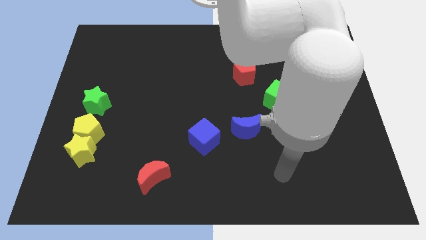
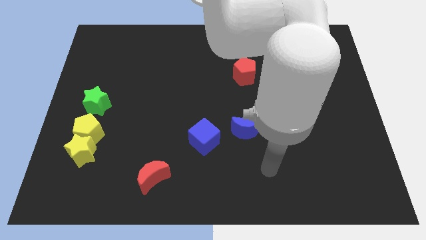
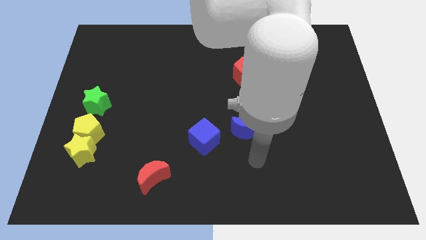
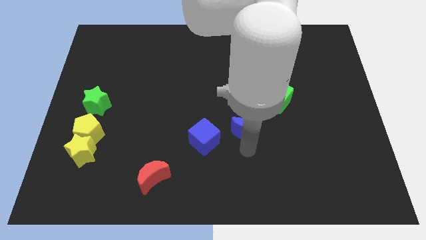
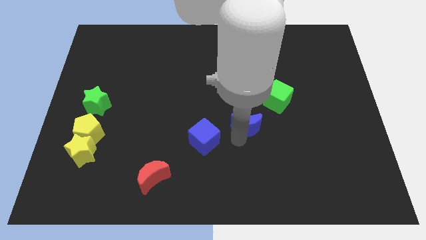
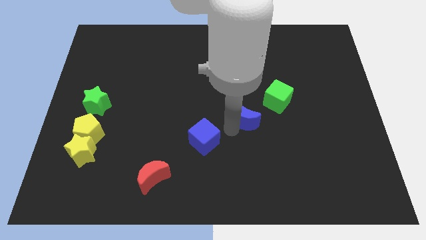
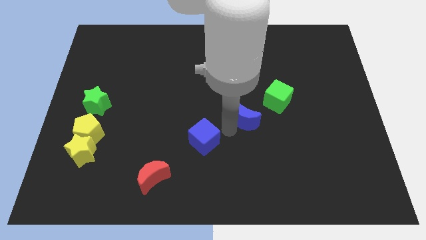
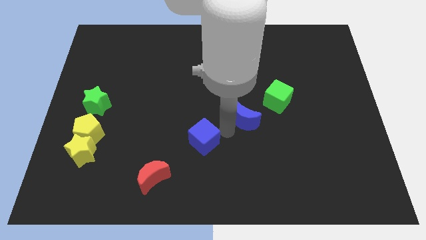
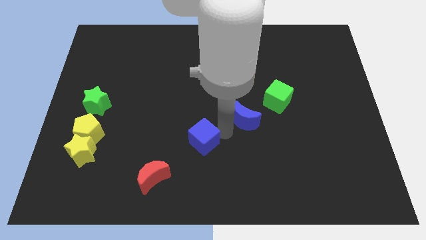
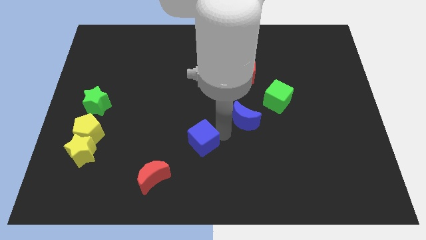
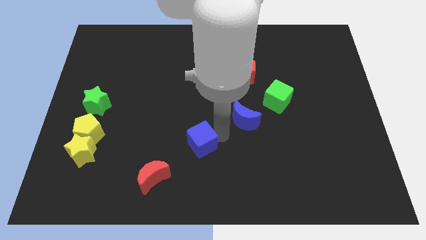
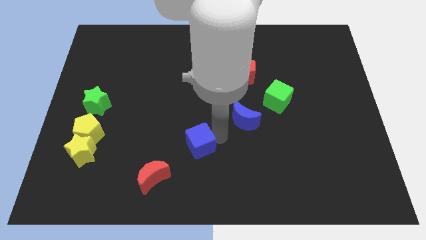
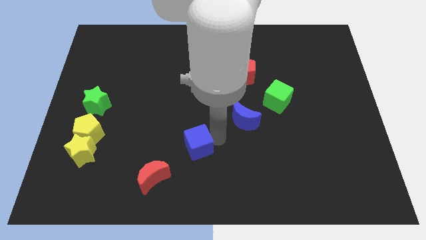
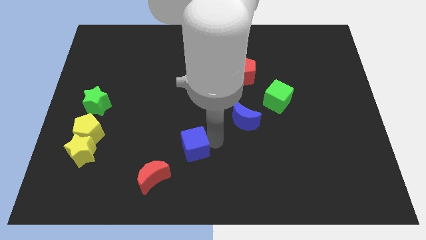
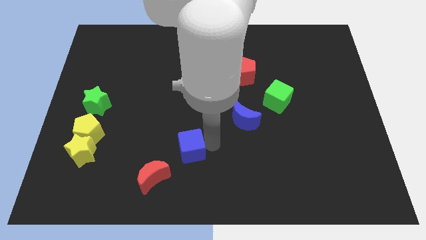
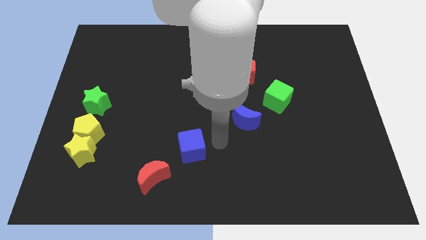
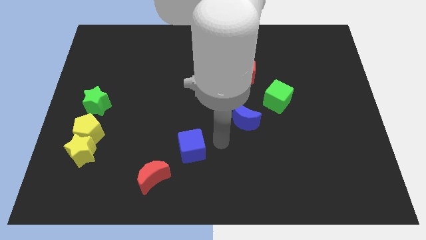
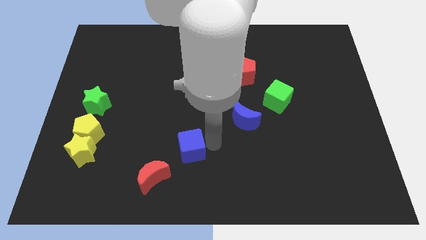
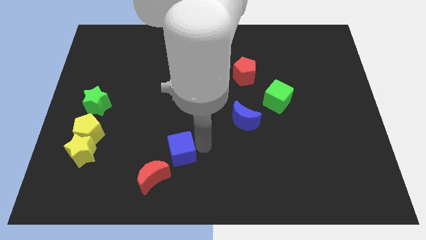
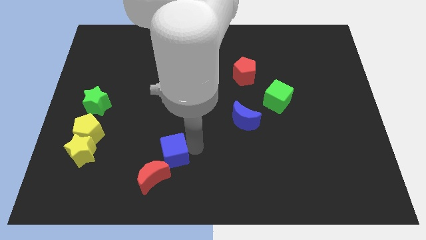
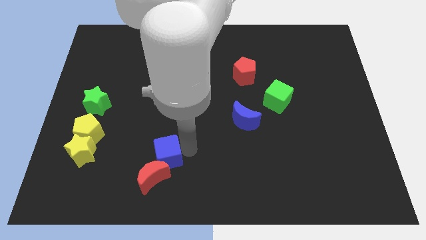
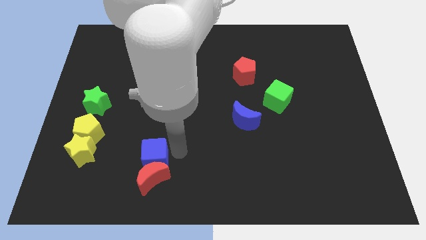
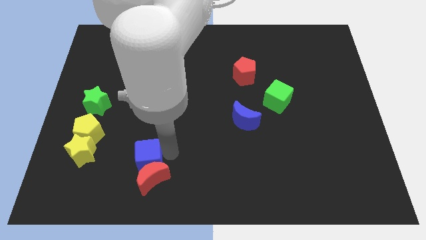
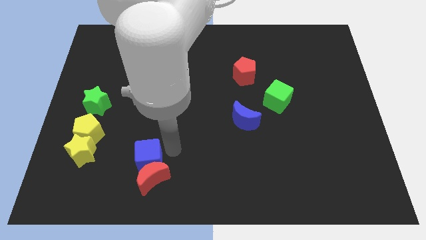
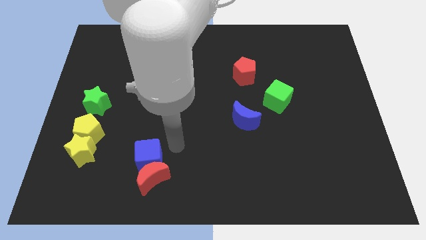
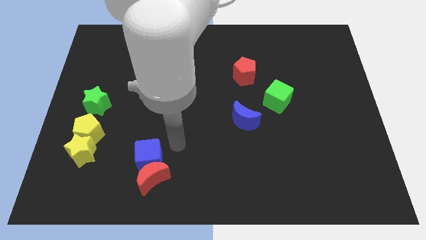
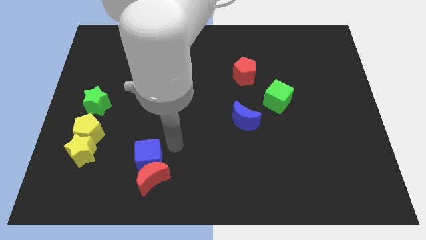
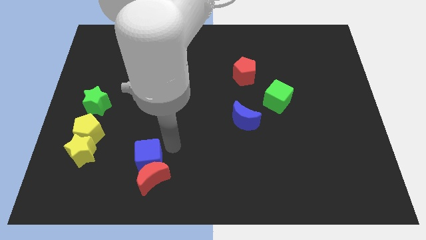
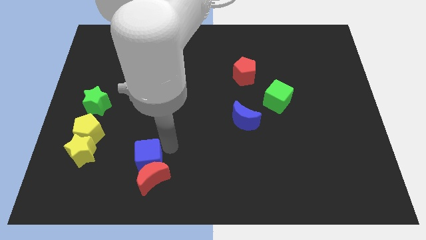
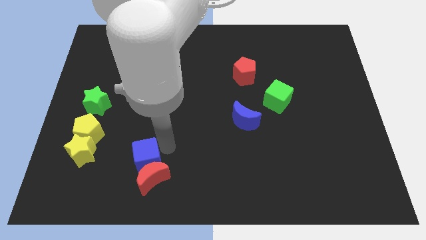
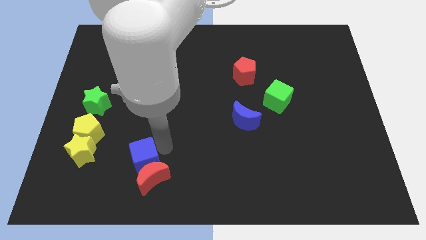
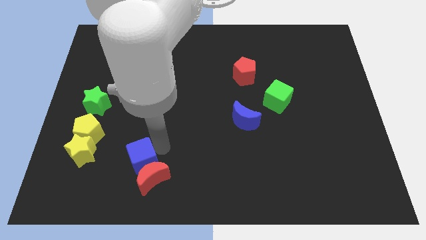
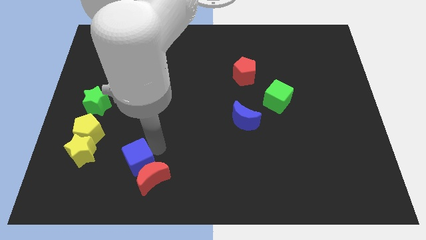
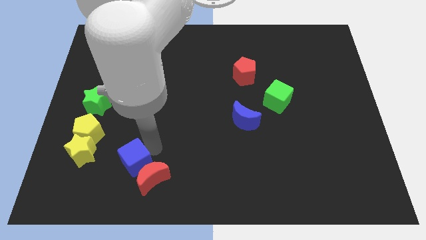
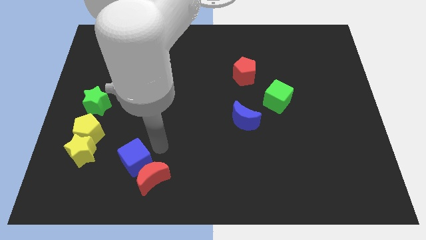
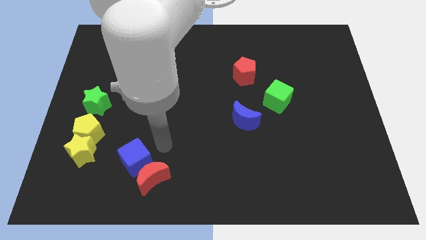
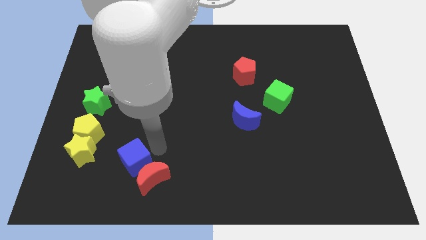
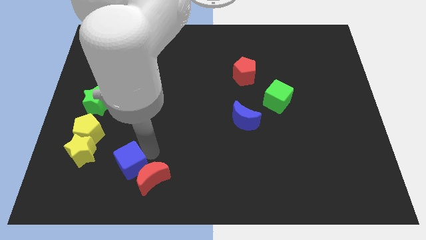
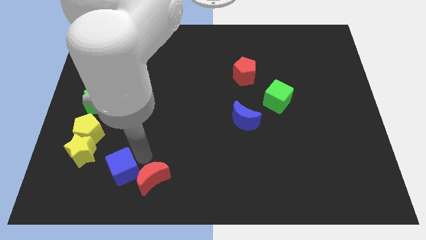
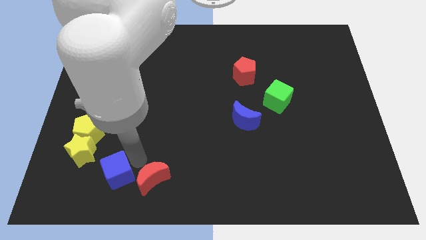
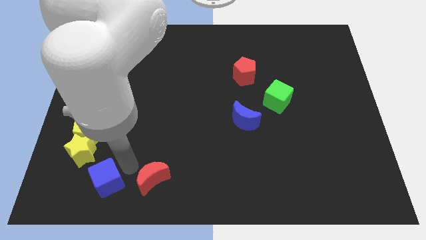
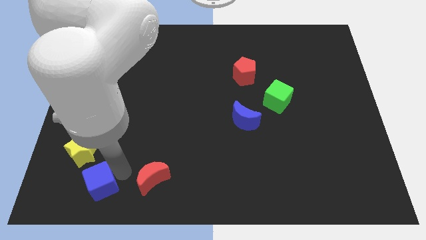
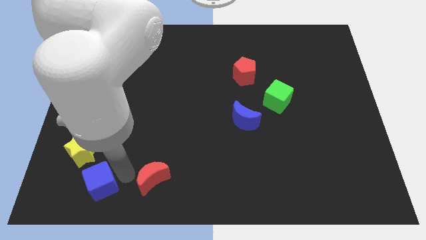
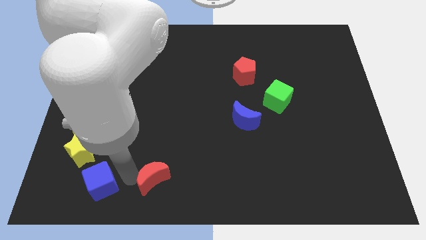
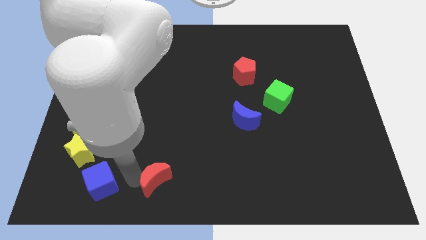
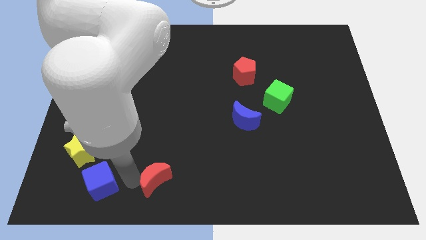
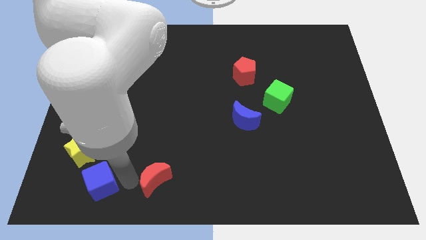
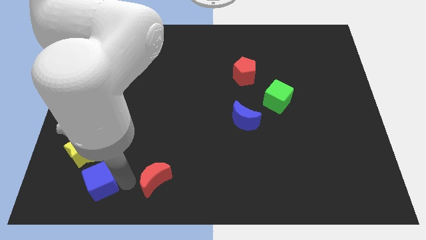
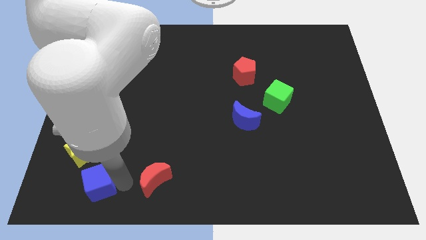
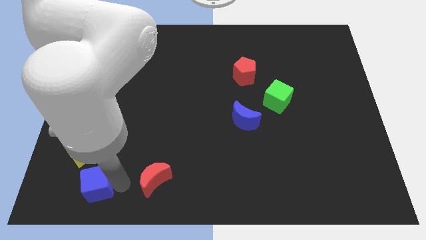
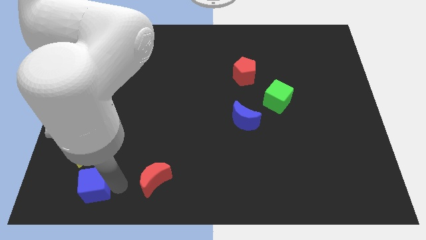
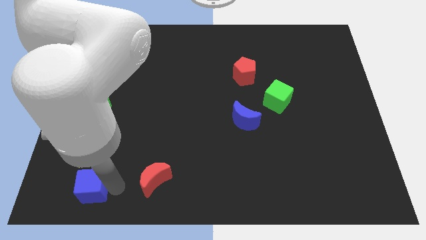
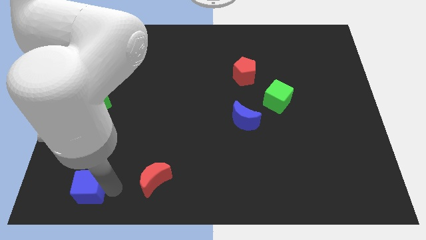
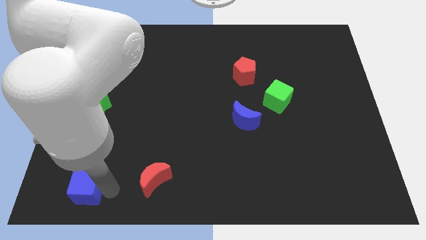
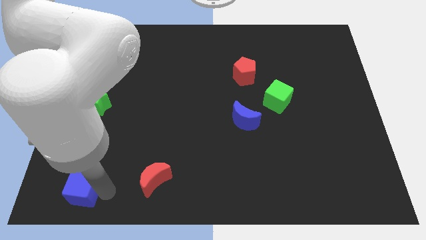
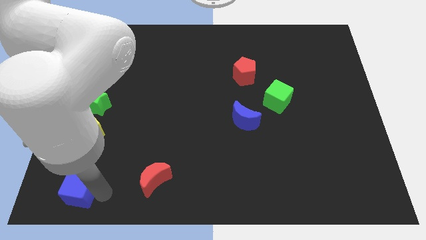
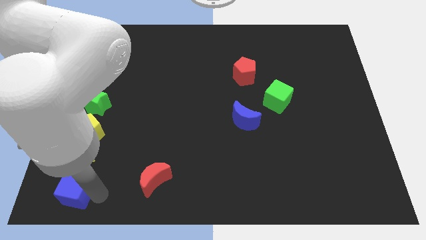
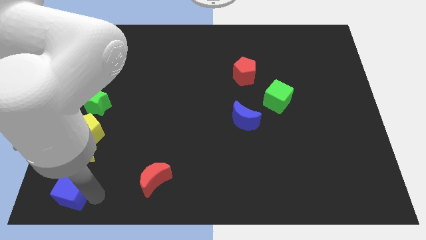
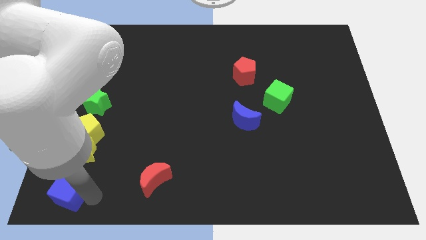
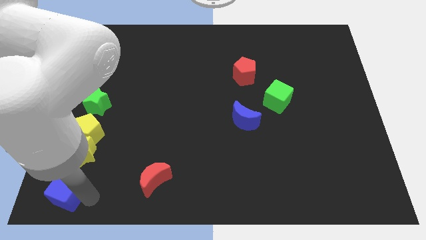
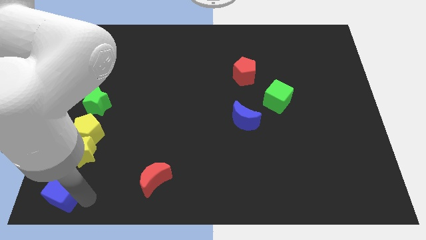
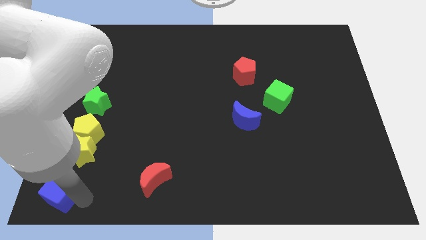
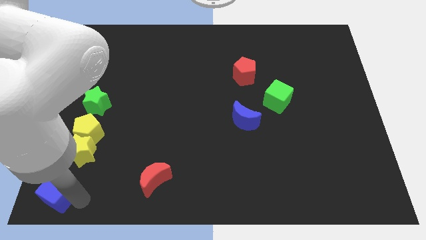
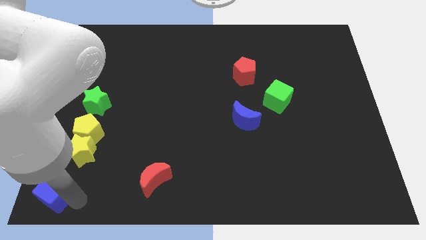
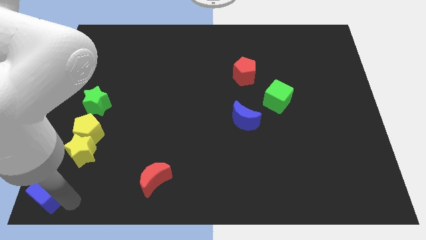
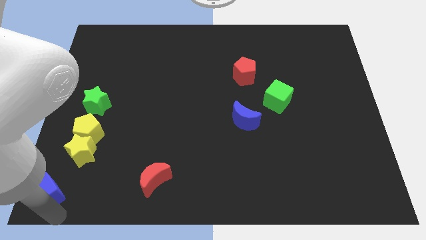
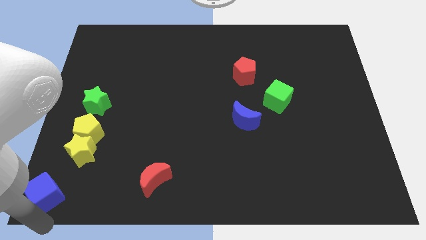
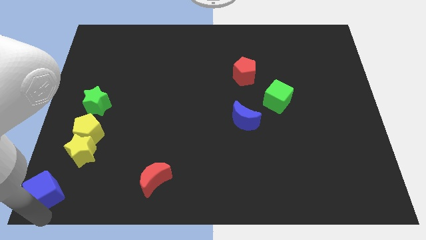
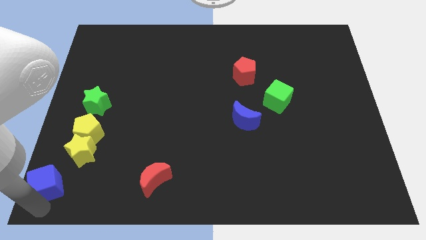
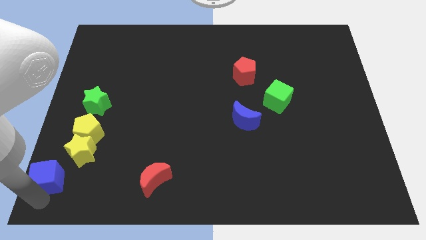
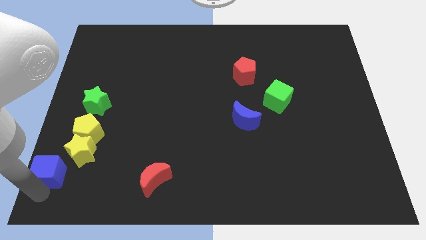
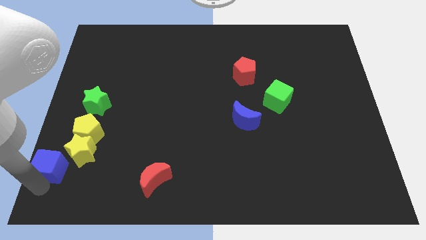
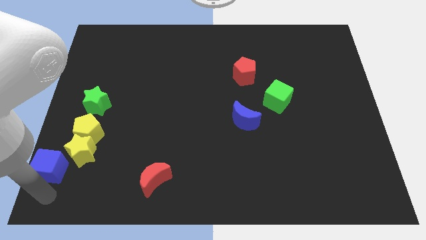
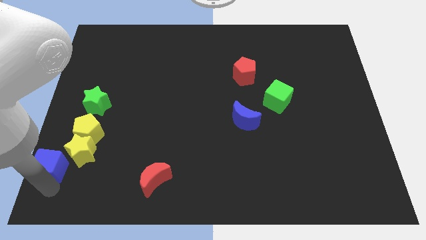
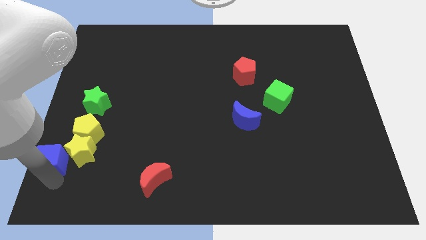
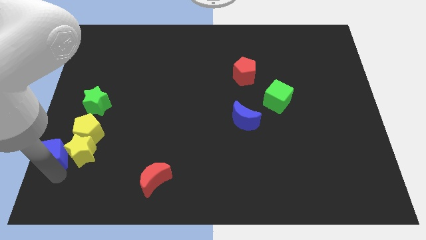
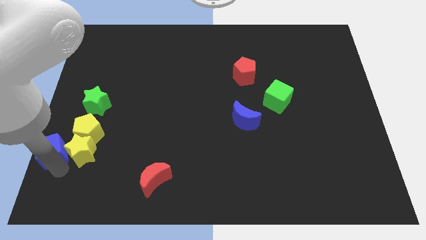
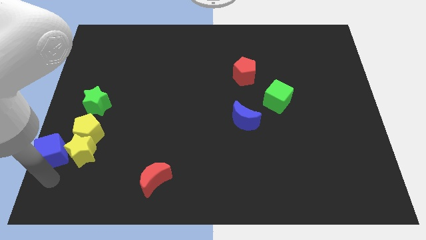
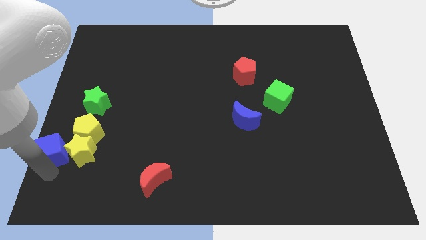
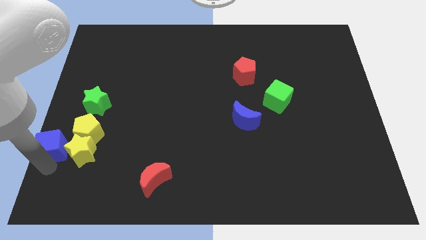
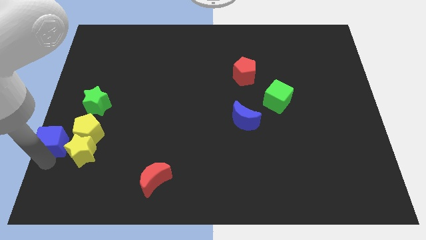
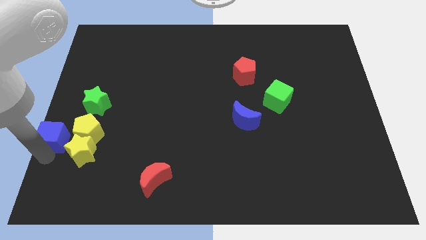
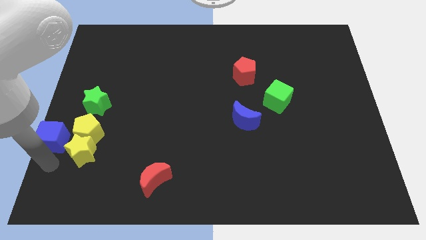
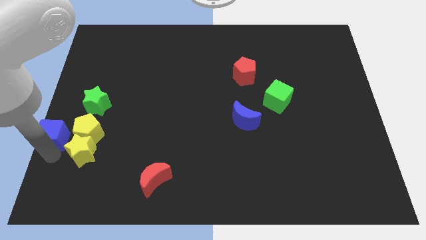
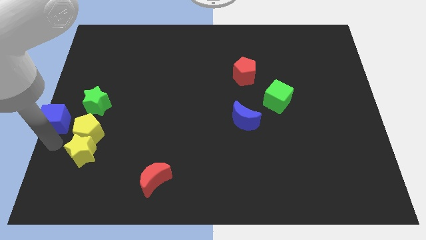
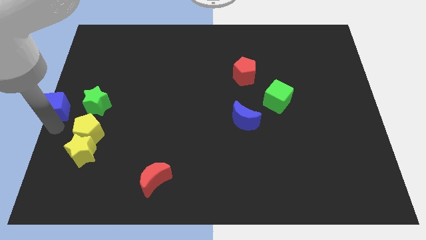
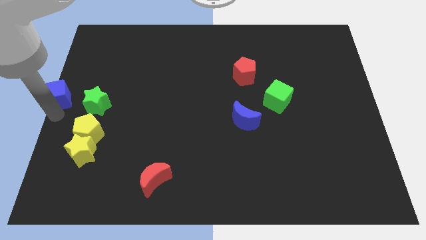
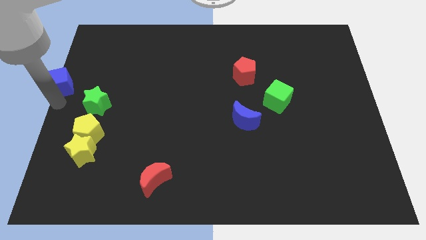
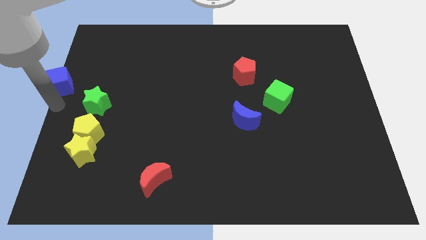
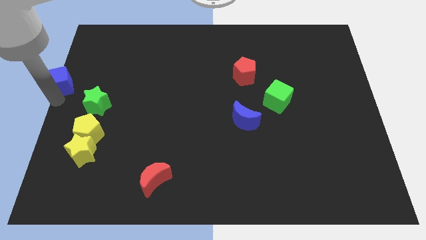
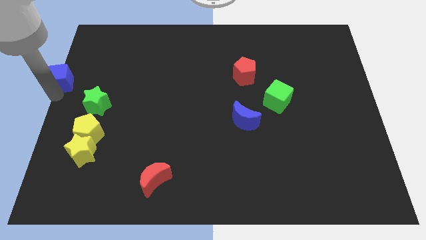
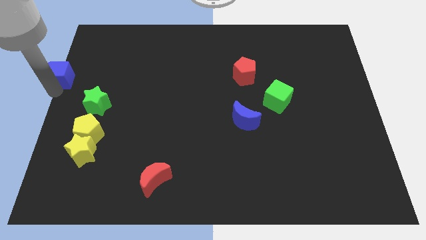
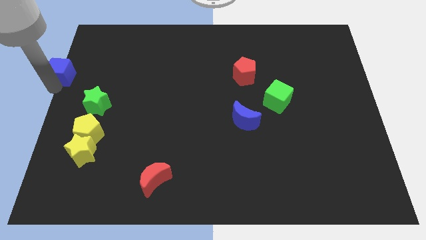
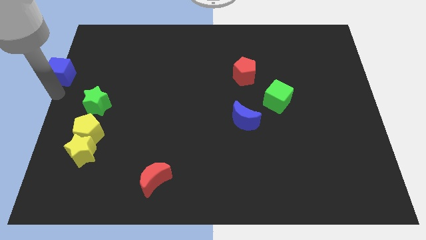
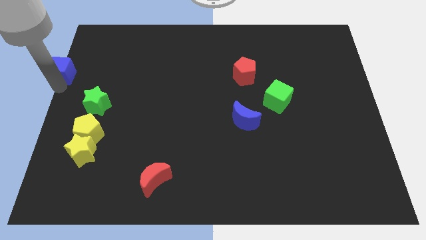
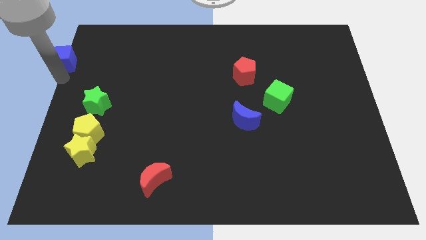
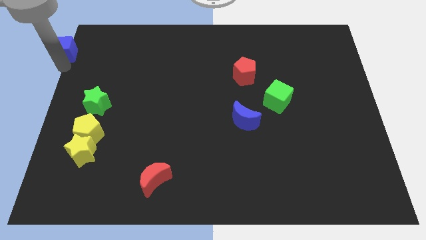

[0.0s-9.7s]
slide the blue cube to the top left
